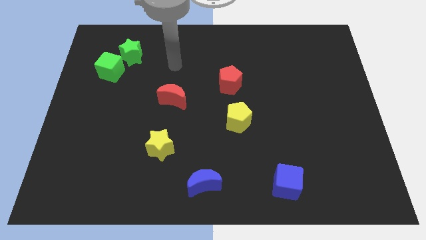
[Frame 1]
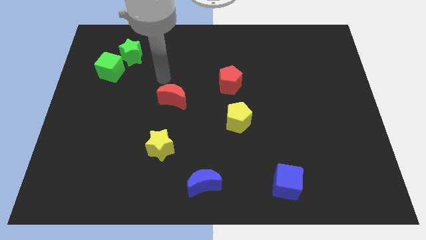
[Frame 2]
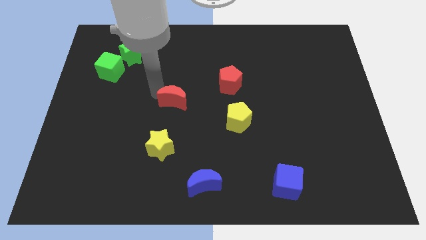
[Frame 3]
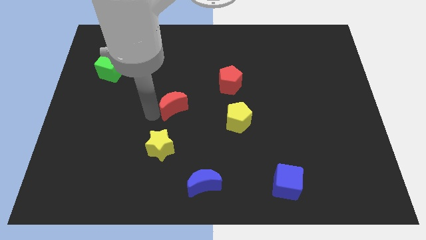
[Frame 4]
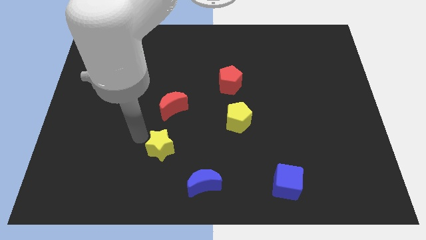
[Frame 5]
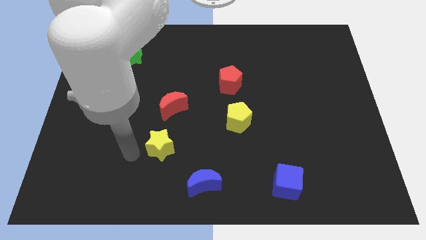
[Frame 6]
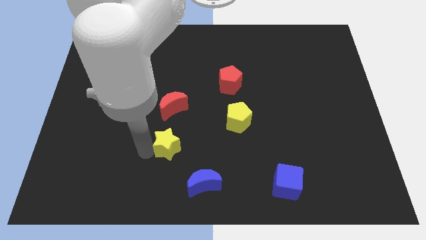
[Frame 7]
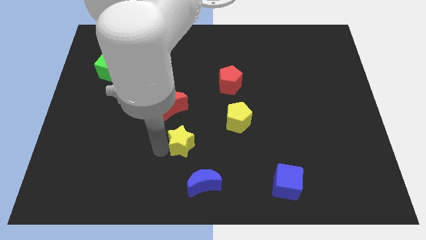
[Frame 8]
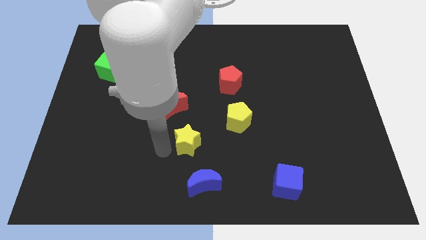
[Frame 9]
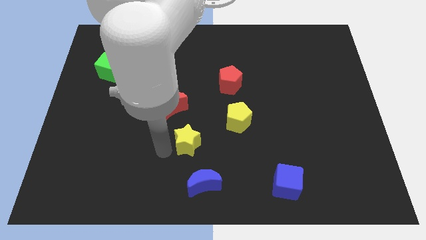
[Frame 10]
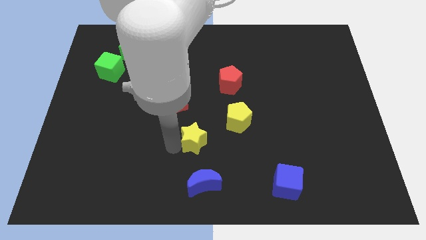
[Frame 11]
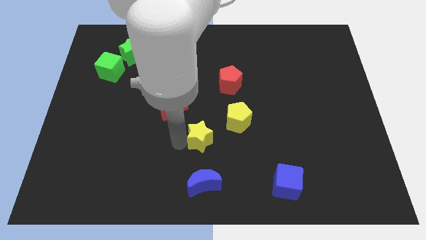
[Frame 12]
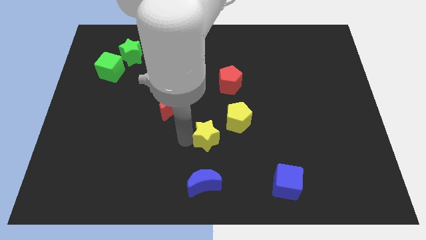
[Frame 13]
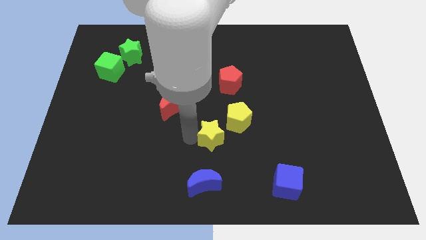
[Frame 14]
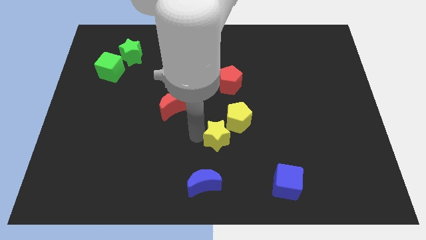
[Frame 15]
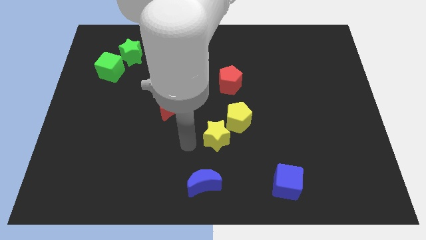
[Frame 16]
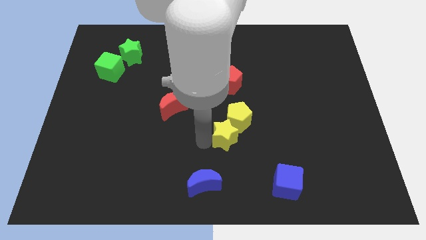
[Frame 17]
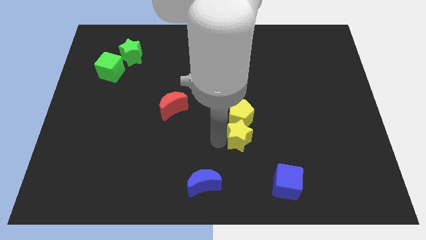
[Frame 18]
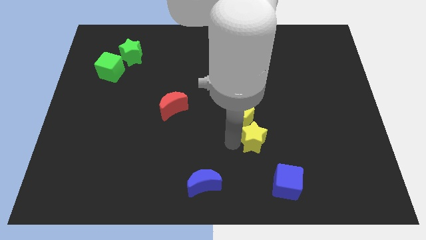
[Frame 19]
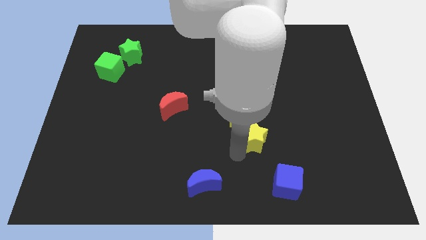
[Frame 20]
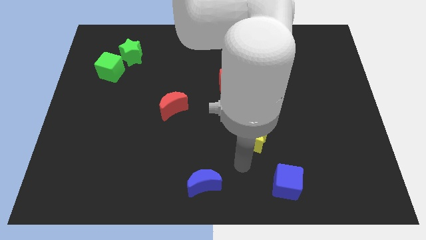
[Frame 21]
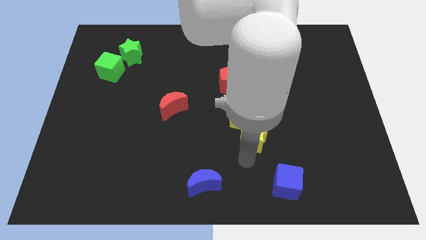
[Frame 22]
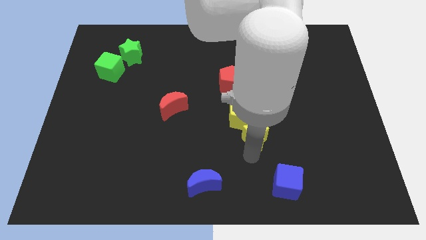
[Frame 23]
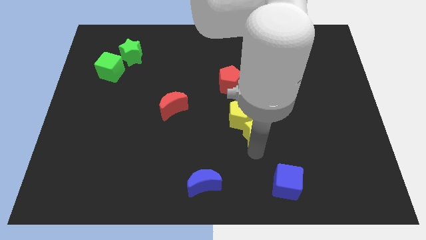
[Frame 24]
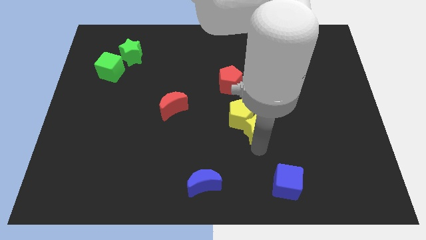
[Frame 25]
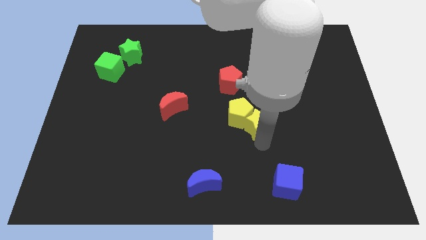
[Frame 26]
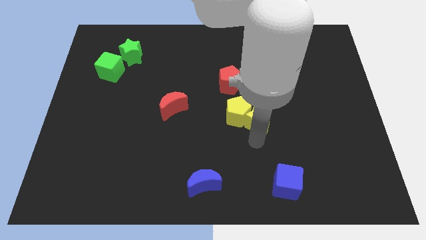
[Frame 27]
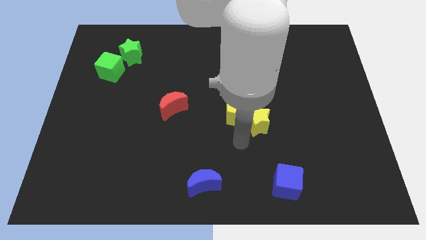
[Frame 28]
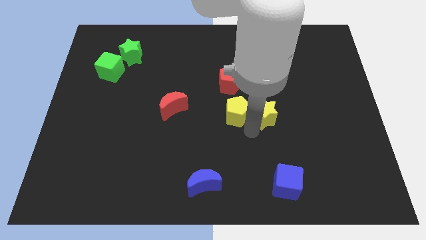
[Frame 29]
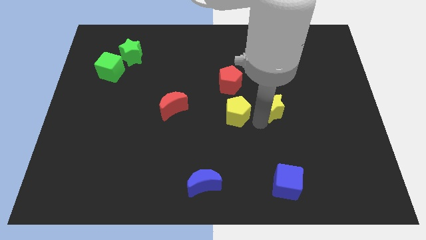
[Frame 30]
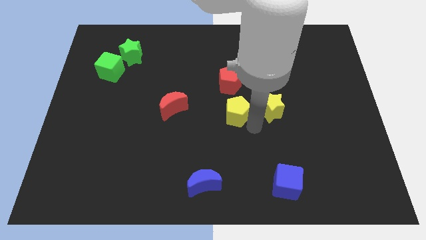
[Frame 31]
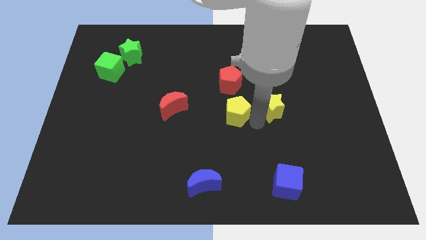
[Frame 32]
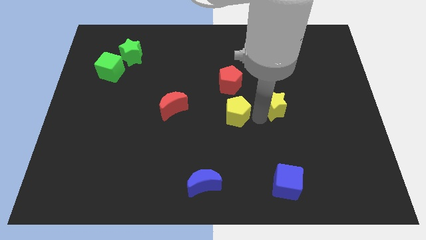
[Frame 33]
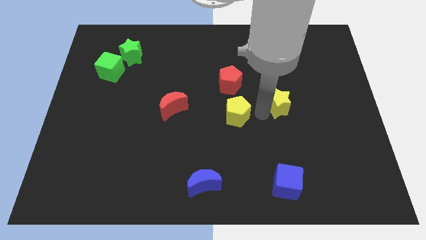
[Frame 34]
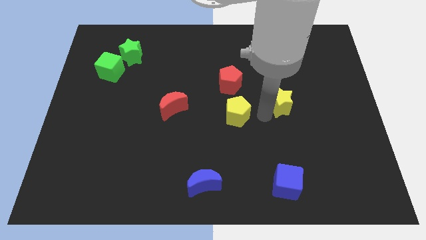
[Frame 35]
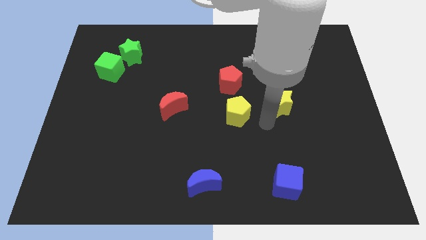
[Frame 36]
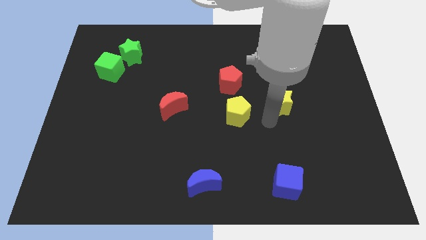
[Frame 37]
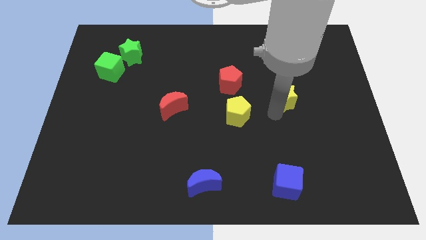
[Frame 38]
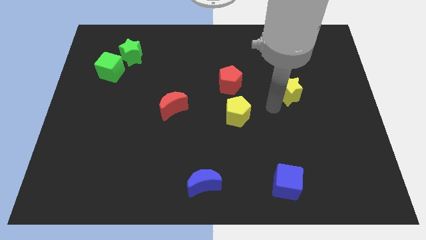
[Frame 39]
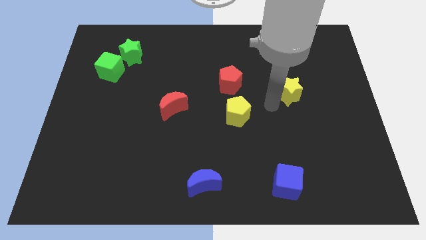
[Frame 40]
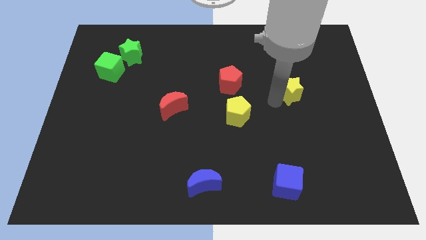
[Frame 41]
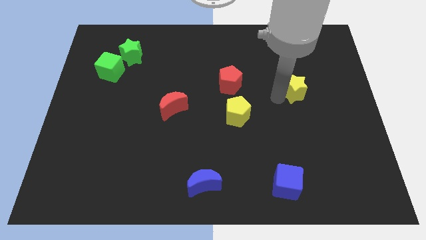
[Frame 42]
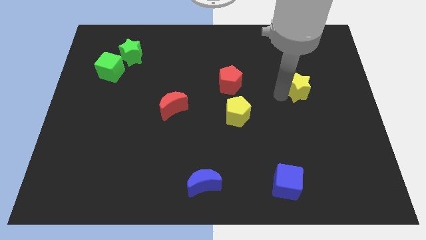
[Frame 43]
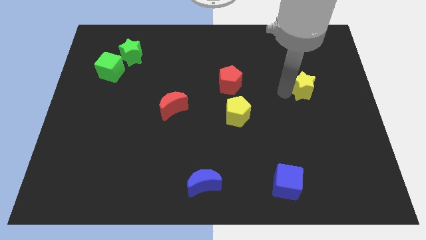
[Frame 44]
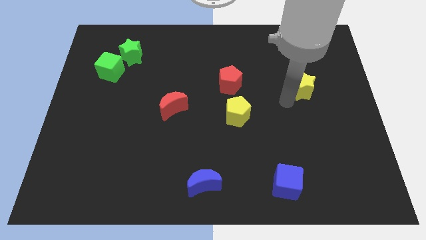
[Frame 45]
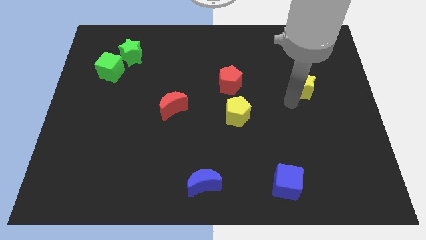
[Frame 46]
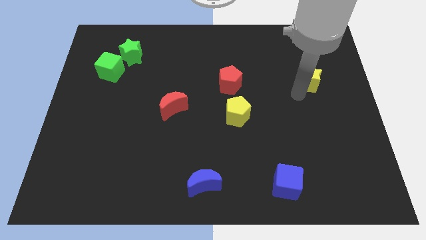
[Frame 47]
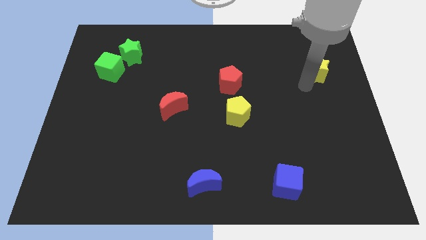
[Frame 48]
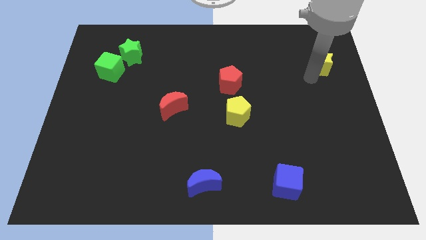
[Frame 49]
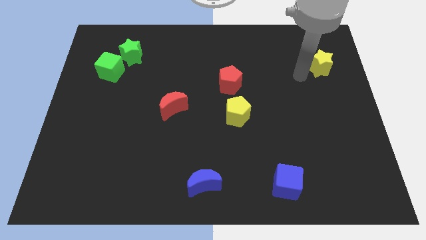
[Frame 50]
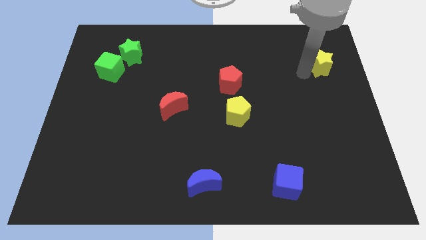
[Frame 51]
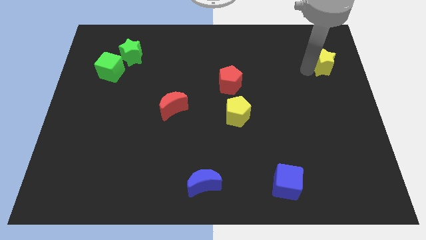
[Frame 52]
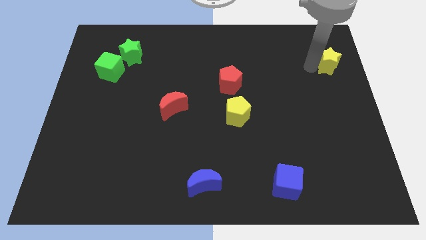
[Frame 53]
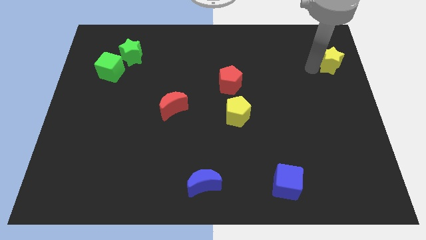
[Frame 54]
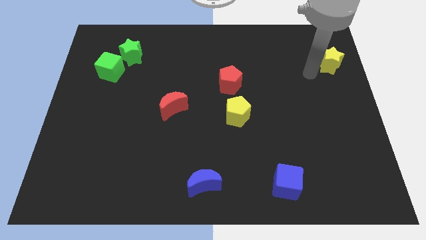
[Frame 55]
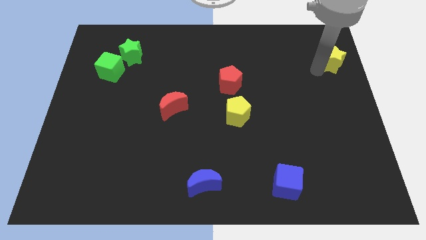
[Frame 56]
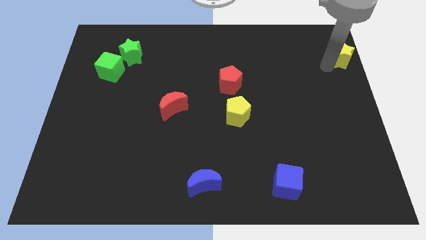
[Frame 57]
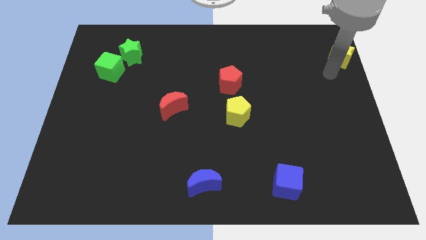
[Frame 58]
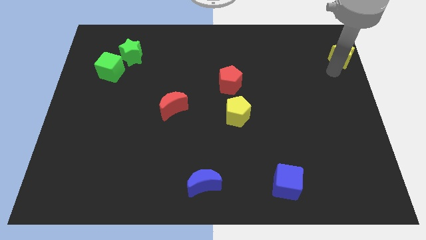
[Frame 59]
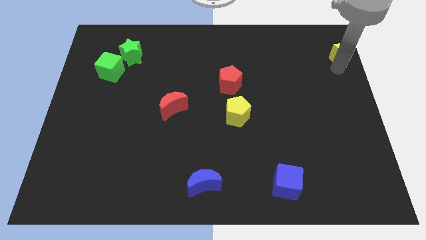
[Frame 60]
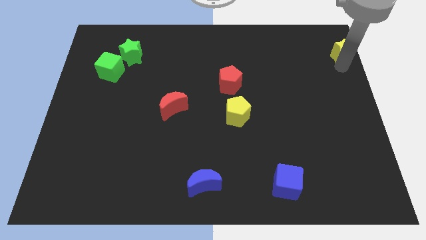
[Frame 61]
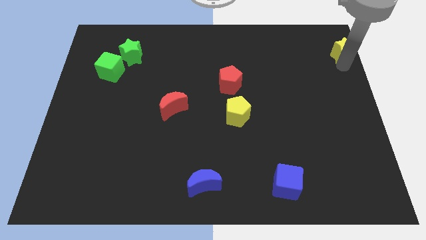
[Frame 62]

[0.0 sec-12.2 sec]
push the yellow star to the top right
